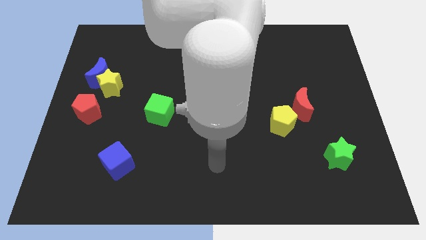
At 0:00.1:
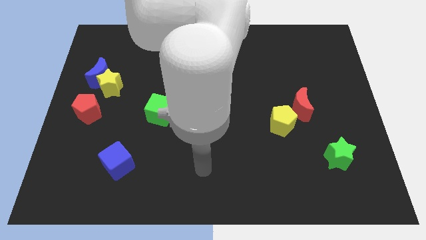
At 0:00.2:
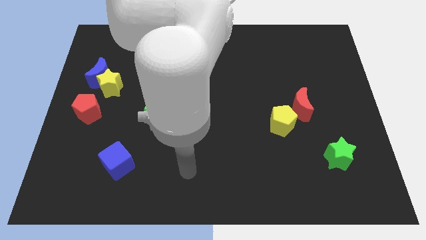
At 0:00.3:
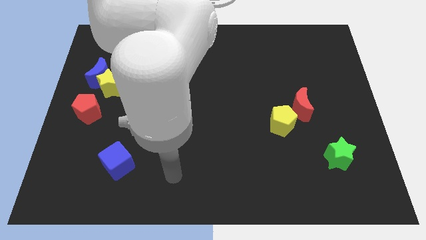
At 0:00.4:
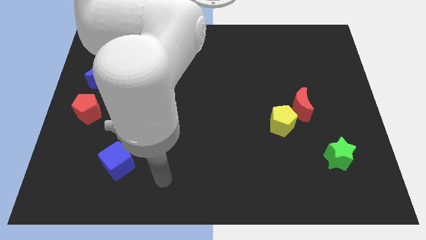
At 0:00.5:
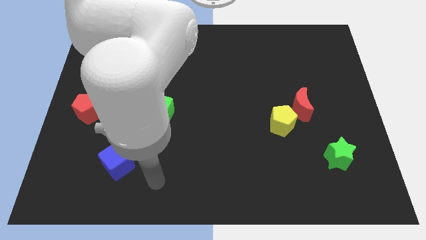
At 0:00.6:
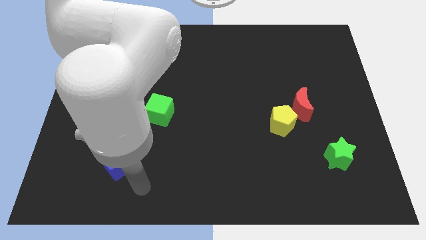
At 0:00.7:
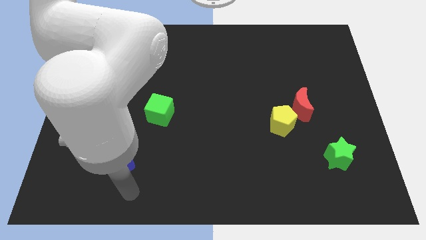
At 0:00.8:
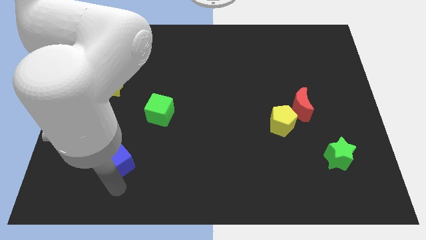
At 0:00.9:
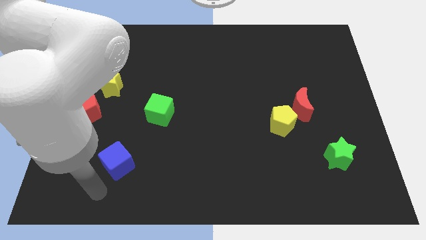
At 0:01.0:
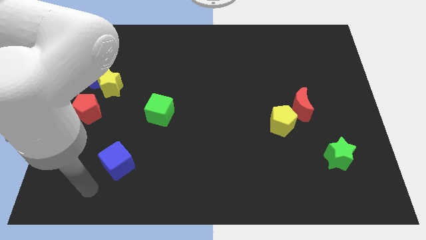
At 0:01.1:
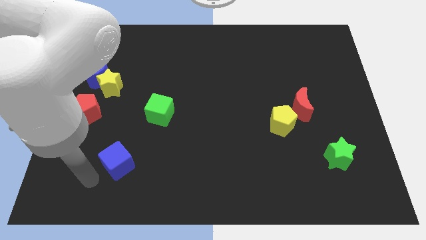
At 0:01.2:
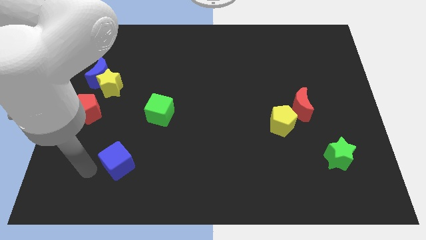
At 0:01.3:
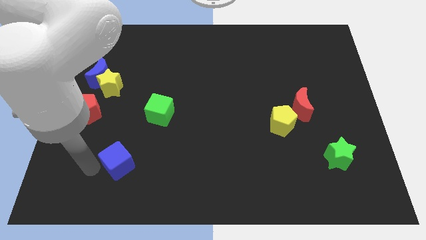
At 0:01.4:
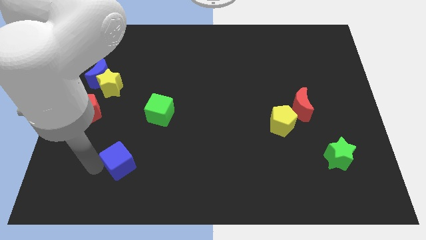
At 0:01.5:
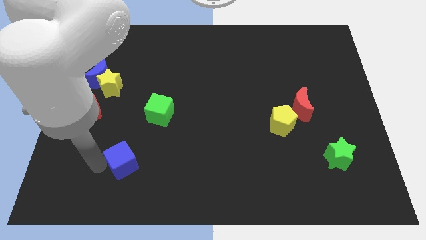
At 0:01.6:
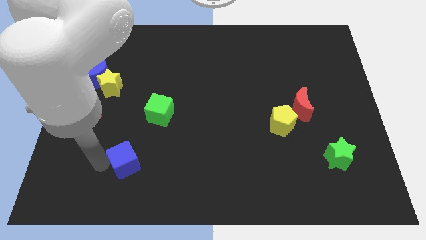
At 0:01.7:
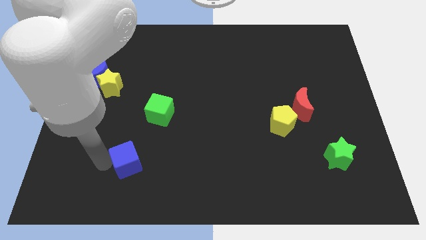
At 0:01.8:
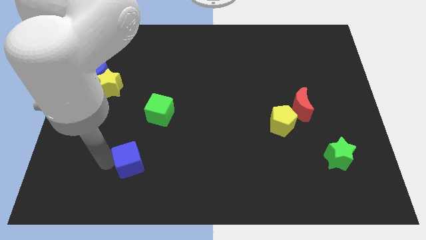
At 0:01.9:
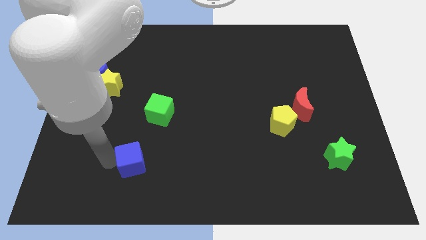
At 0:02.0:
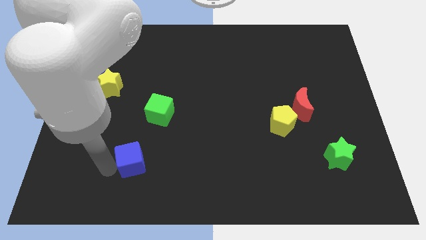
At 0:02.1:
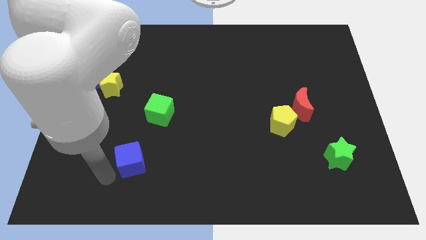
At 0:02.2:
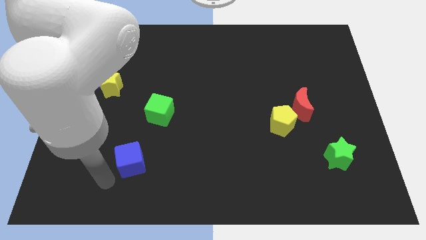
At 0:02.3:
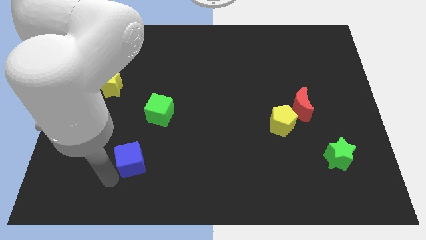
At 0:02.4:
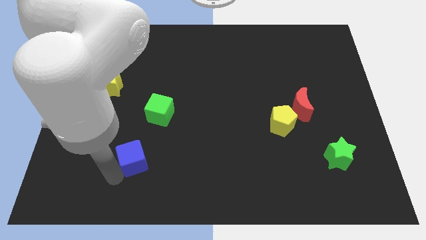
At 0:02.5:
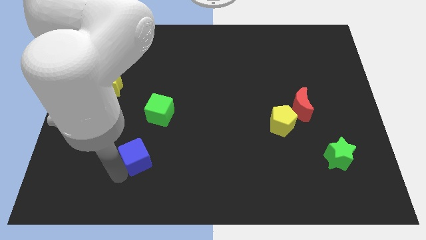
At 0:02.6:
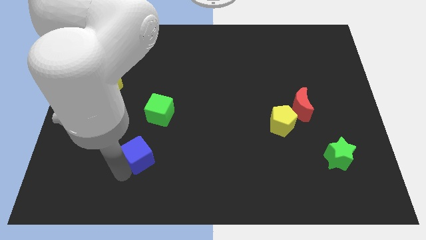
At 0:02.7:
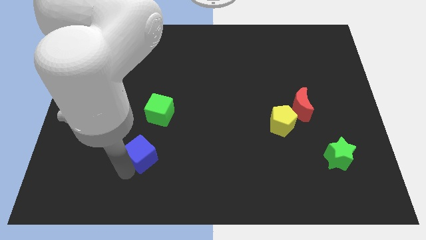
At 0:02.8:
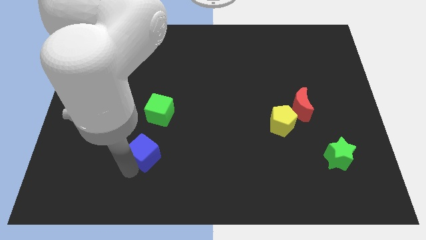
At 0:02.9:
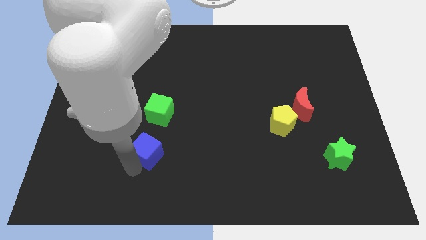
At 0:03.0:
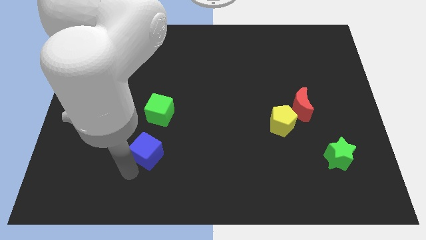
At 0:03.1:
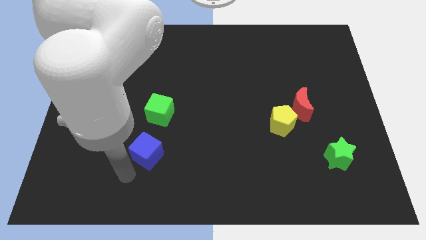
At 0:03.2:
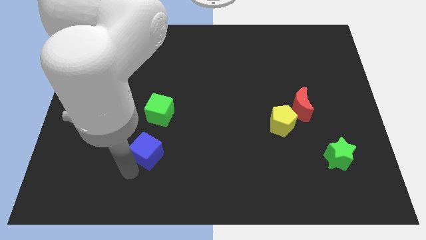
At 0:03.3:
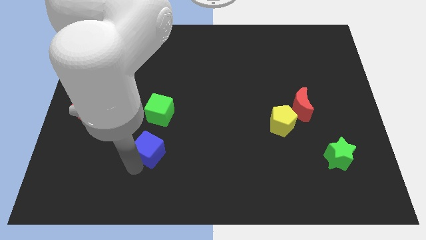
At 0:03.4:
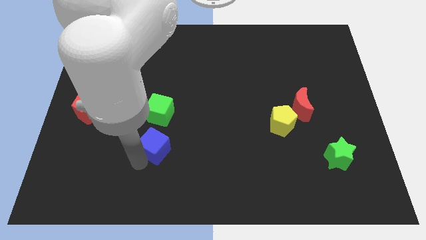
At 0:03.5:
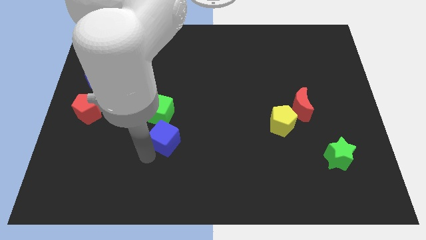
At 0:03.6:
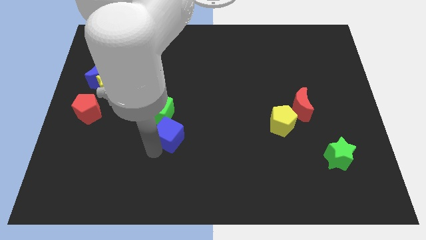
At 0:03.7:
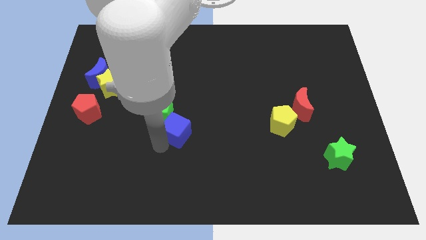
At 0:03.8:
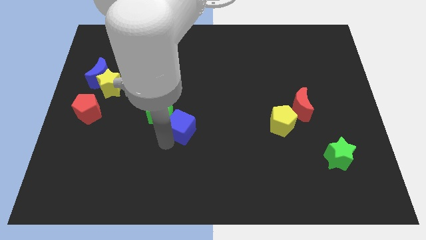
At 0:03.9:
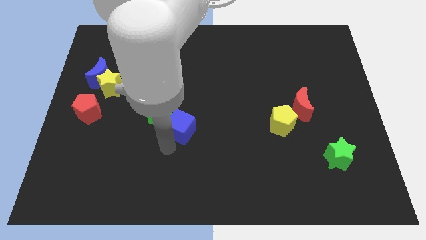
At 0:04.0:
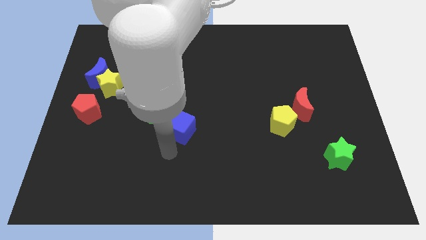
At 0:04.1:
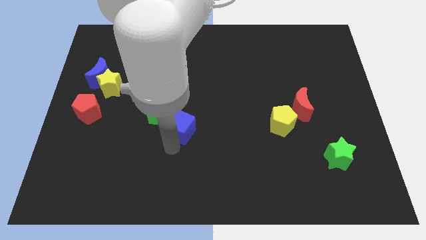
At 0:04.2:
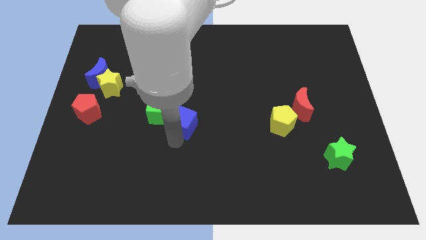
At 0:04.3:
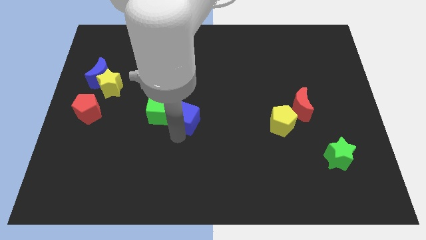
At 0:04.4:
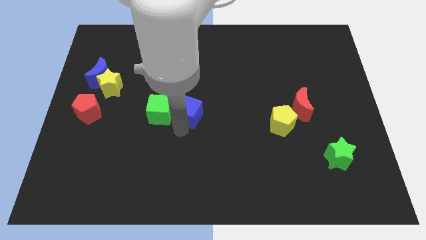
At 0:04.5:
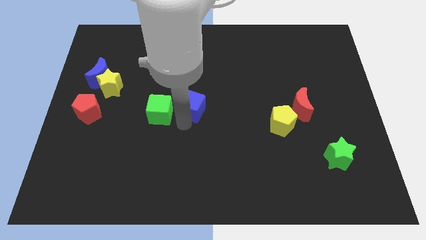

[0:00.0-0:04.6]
push the blue cube up and right

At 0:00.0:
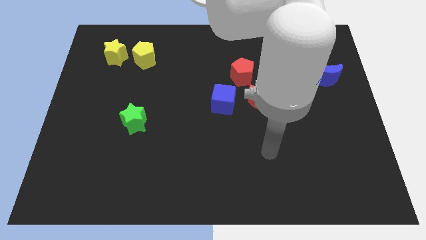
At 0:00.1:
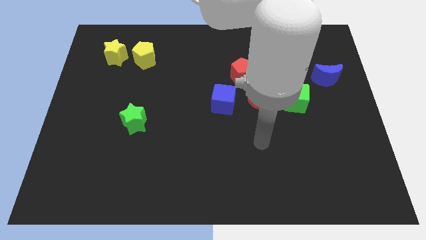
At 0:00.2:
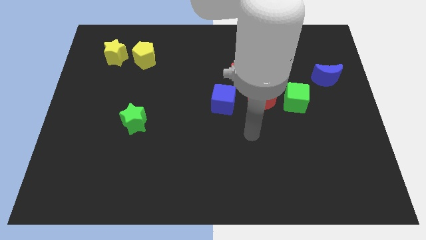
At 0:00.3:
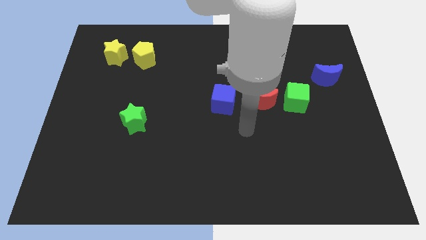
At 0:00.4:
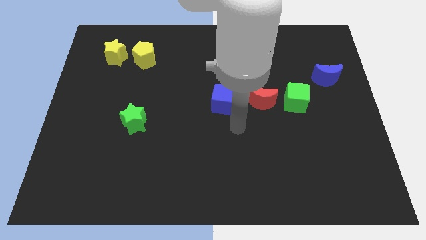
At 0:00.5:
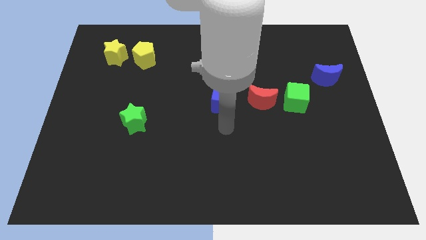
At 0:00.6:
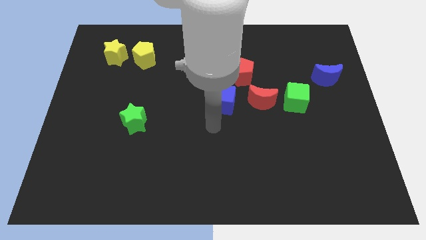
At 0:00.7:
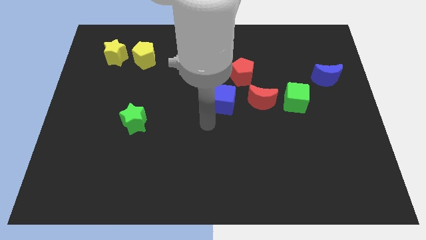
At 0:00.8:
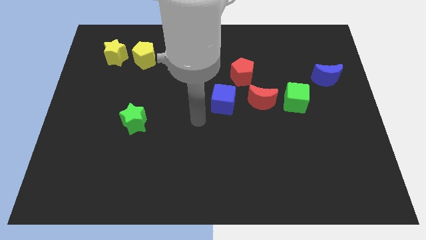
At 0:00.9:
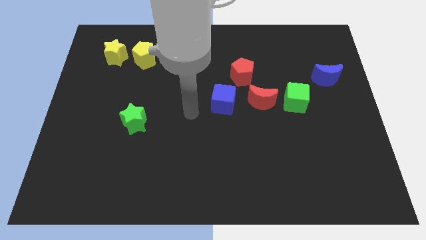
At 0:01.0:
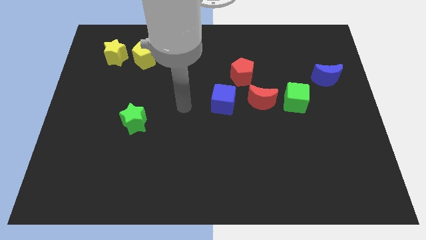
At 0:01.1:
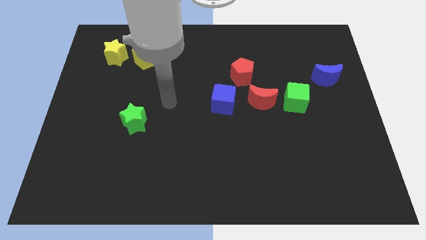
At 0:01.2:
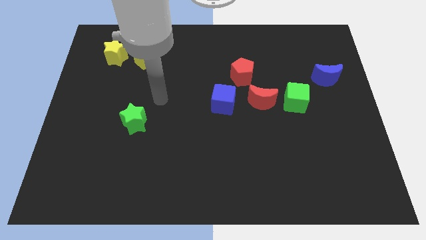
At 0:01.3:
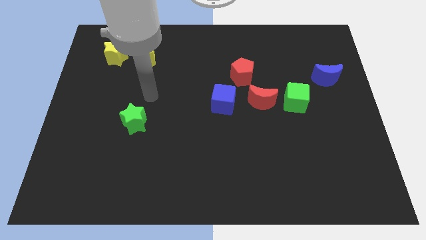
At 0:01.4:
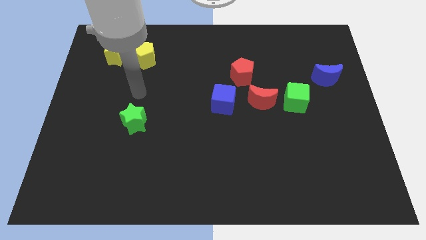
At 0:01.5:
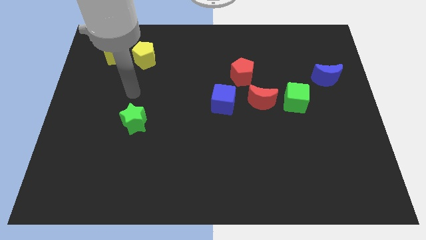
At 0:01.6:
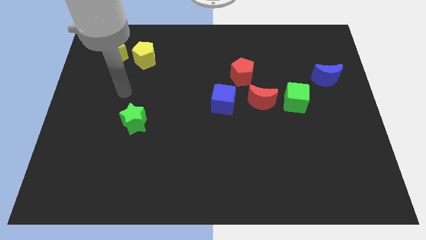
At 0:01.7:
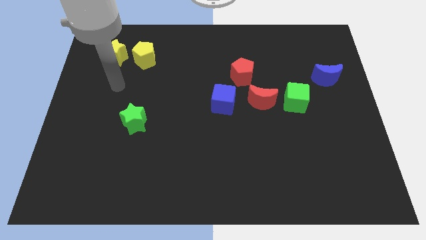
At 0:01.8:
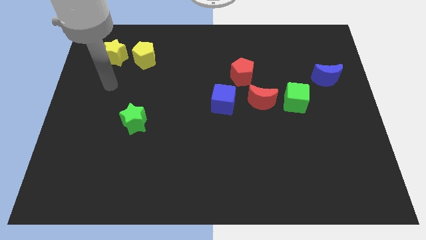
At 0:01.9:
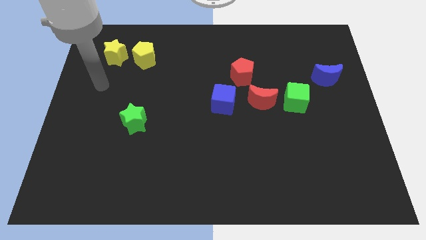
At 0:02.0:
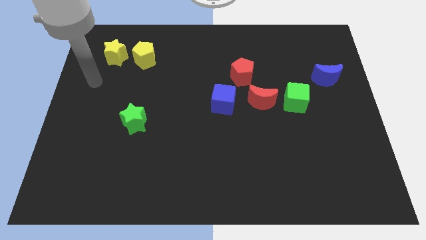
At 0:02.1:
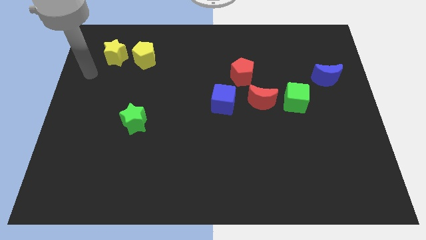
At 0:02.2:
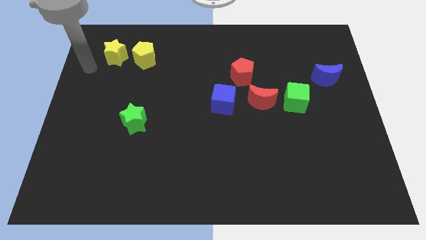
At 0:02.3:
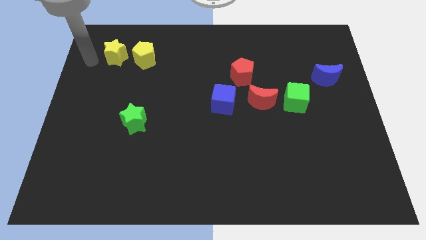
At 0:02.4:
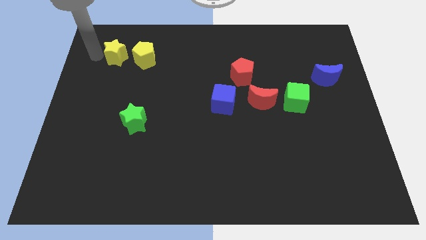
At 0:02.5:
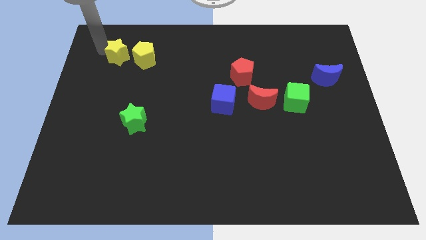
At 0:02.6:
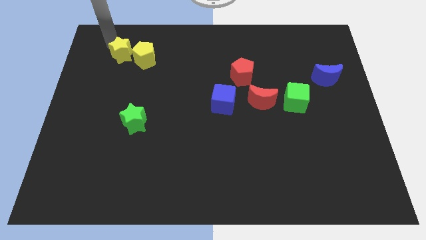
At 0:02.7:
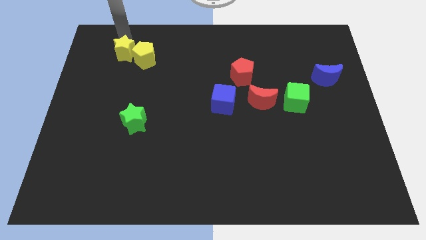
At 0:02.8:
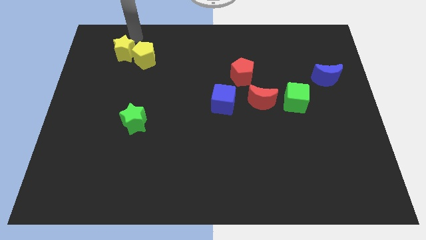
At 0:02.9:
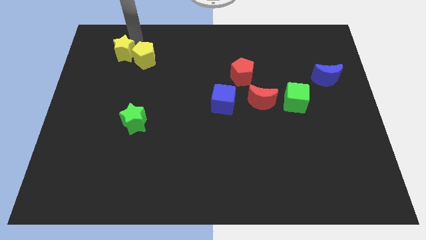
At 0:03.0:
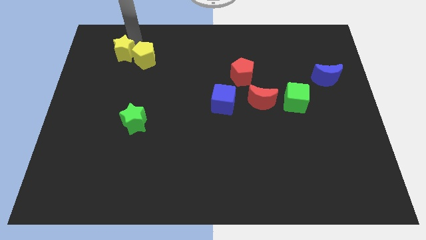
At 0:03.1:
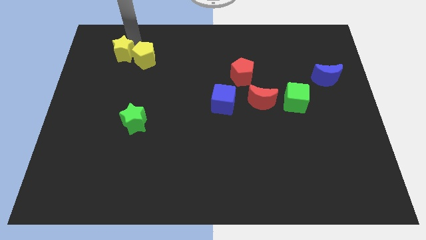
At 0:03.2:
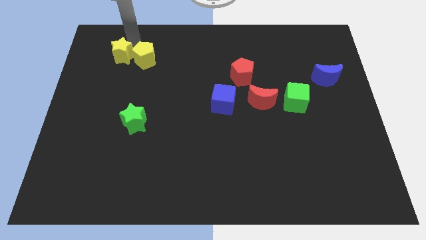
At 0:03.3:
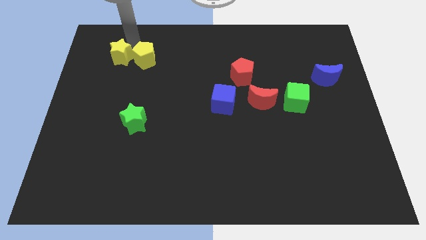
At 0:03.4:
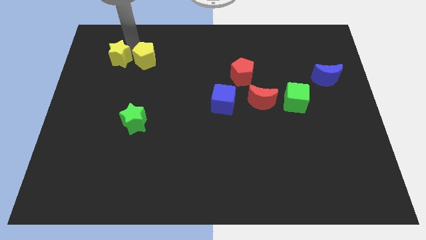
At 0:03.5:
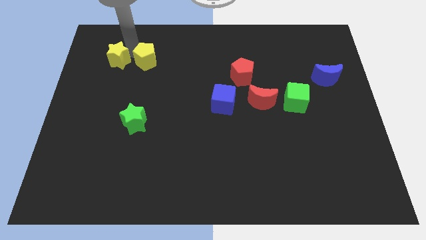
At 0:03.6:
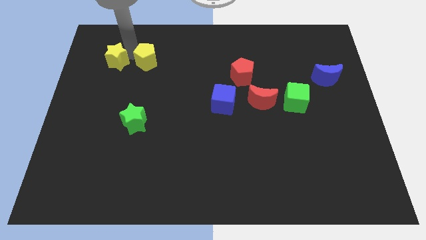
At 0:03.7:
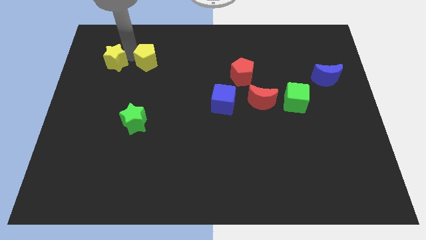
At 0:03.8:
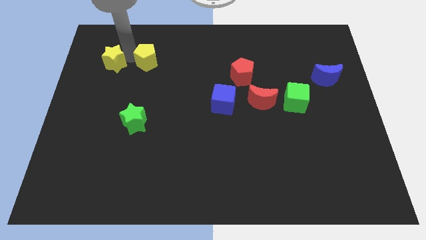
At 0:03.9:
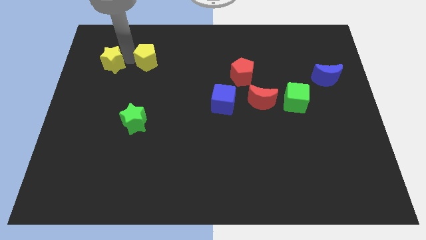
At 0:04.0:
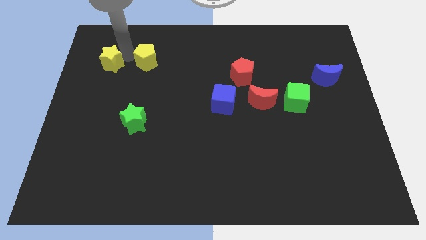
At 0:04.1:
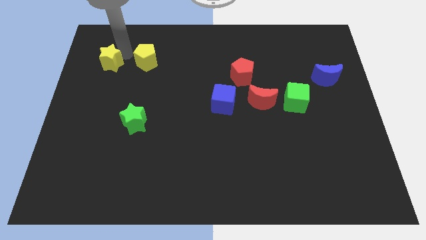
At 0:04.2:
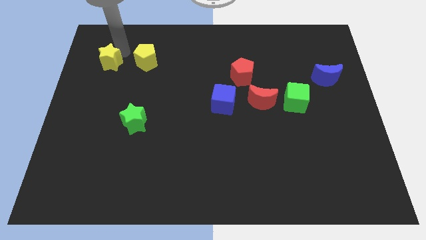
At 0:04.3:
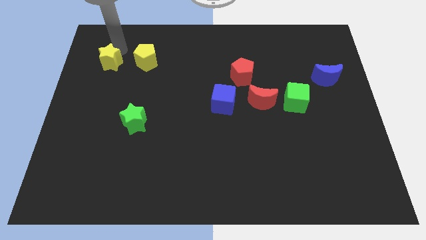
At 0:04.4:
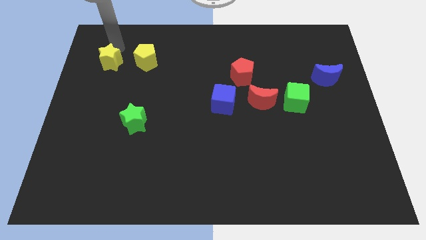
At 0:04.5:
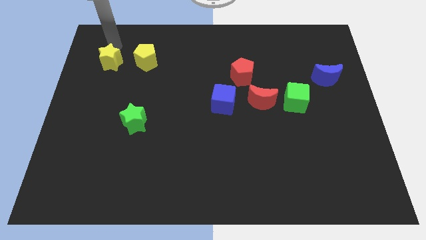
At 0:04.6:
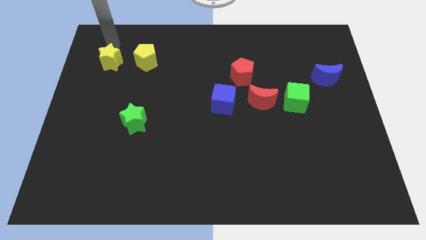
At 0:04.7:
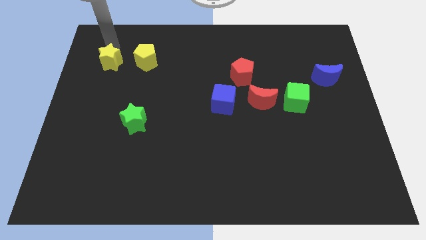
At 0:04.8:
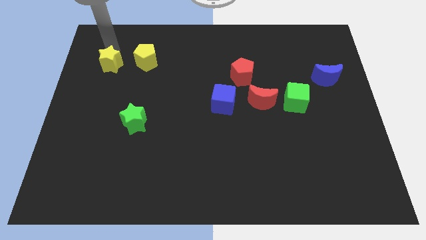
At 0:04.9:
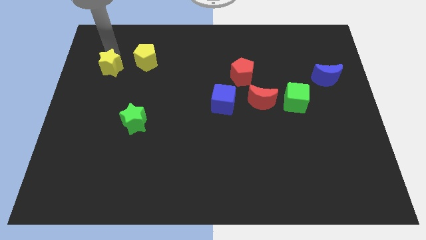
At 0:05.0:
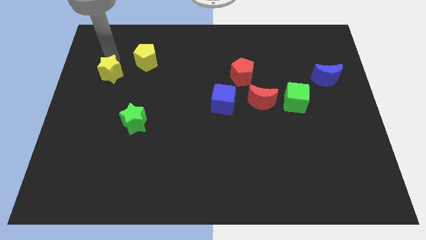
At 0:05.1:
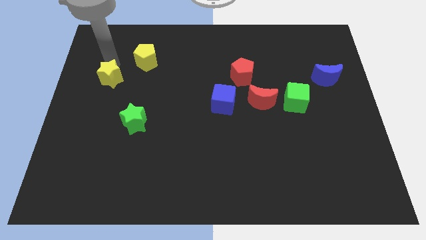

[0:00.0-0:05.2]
move the yellow star down a little
